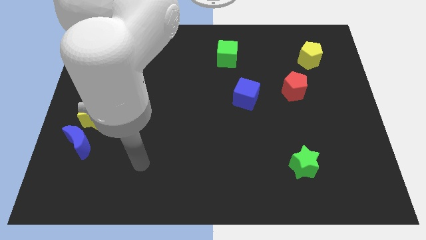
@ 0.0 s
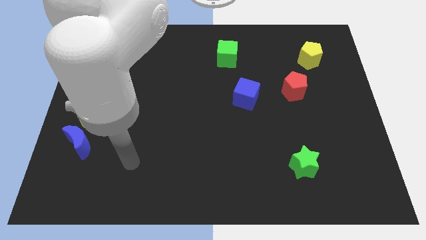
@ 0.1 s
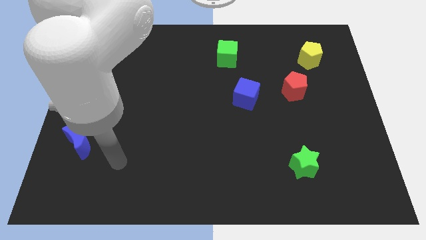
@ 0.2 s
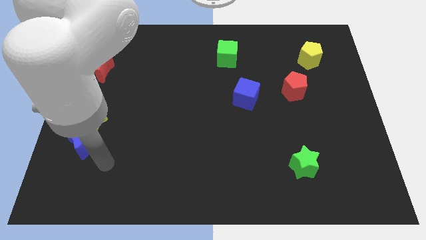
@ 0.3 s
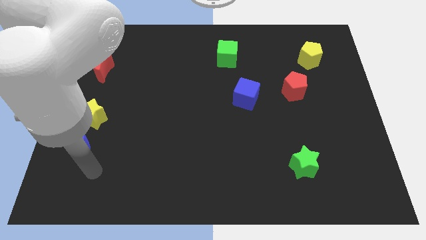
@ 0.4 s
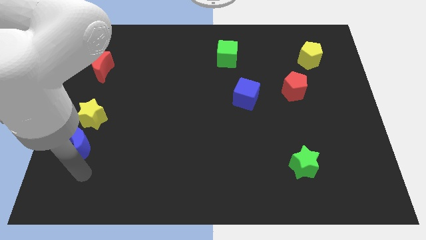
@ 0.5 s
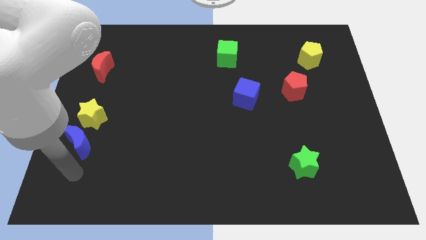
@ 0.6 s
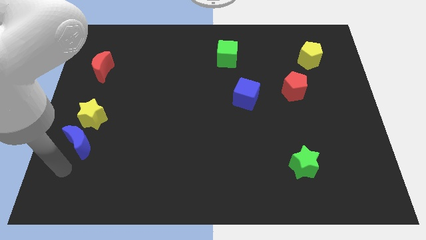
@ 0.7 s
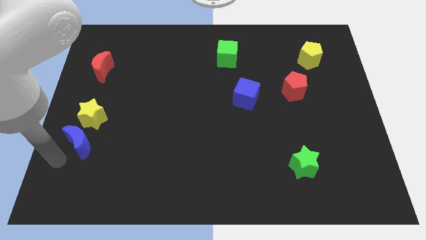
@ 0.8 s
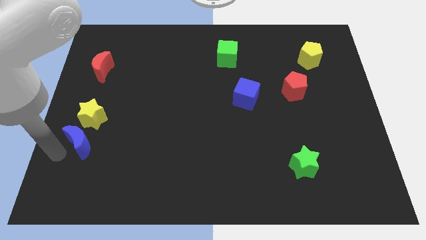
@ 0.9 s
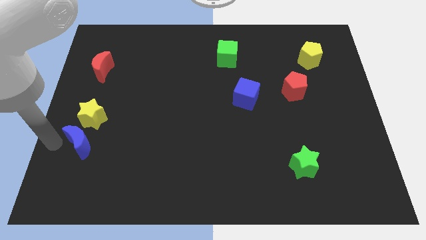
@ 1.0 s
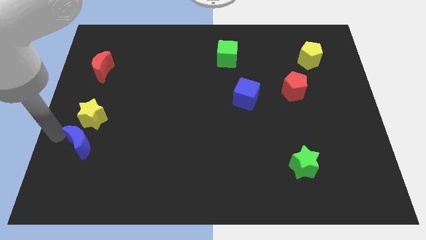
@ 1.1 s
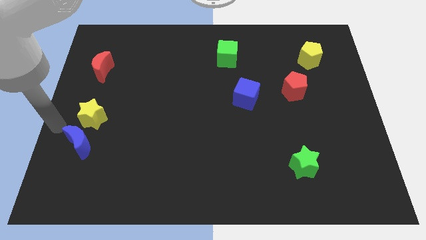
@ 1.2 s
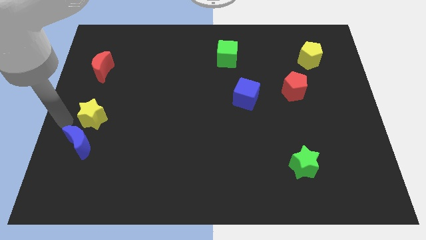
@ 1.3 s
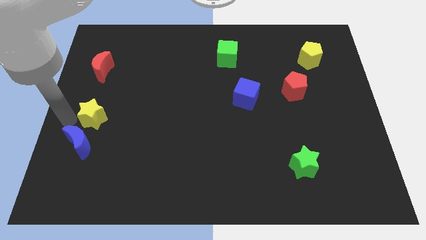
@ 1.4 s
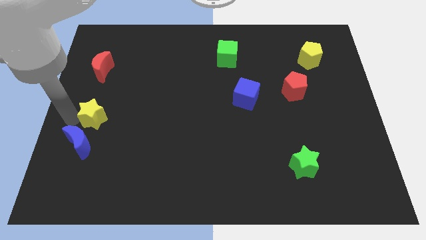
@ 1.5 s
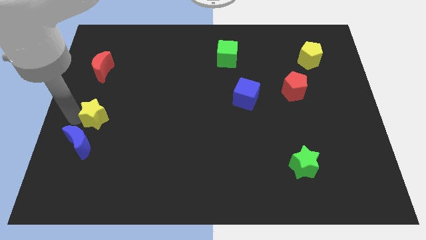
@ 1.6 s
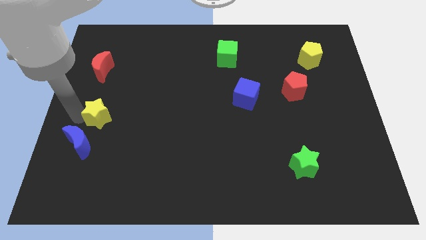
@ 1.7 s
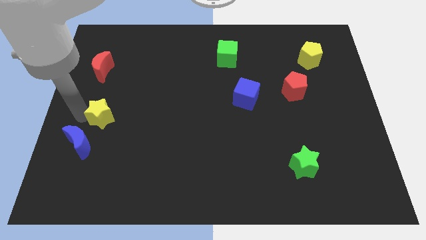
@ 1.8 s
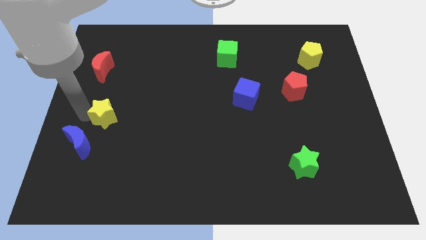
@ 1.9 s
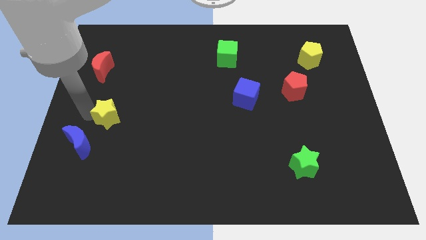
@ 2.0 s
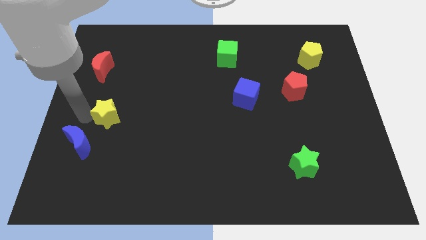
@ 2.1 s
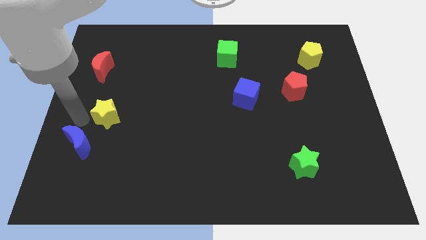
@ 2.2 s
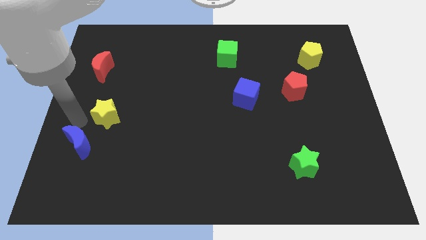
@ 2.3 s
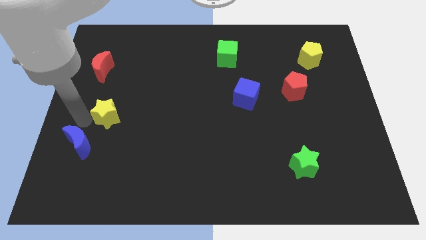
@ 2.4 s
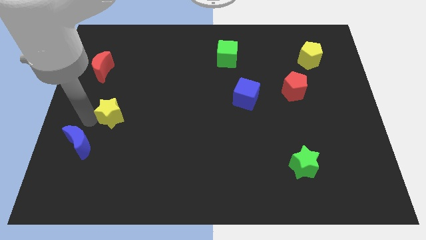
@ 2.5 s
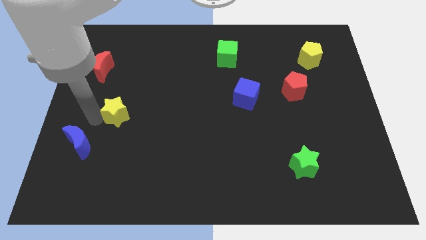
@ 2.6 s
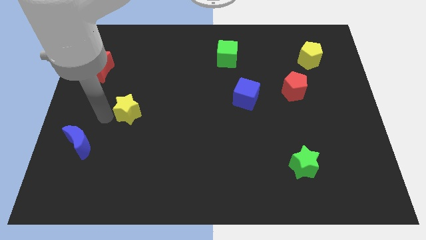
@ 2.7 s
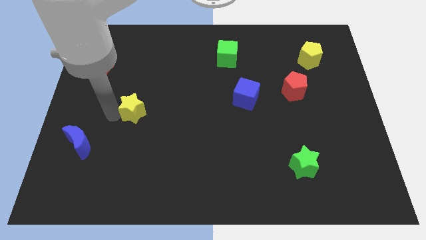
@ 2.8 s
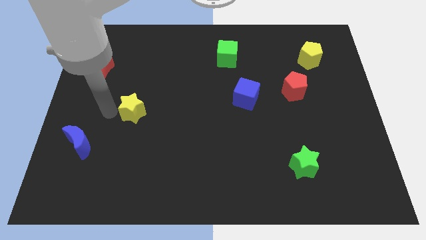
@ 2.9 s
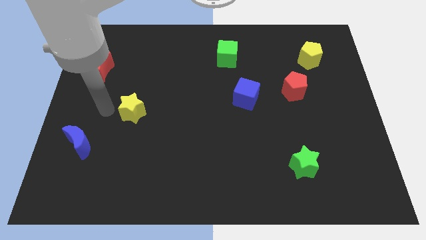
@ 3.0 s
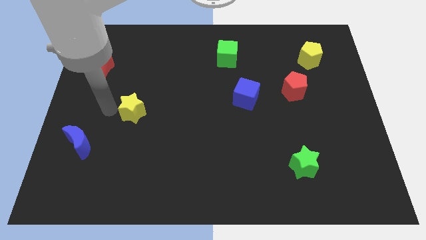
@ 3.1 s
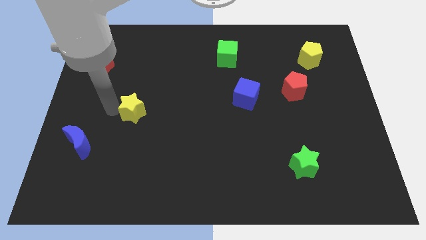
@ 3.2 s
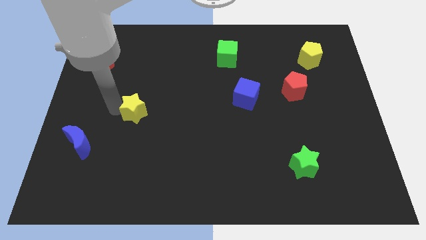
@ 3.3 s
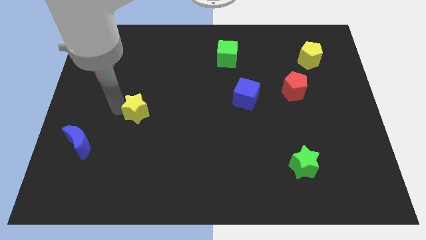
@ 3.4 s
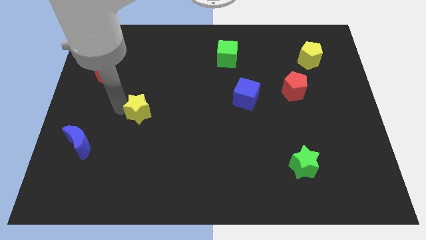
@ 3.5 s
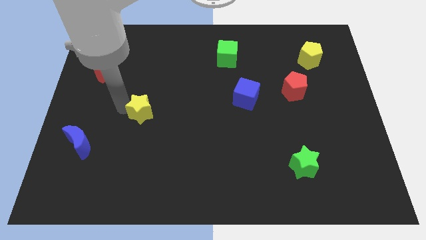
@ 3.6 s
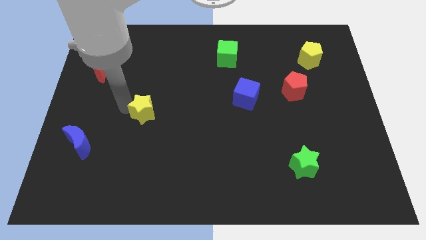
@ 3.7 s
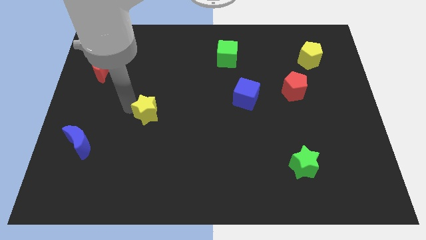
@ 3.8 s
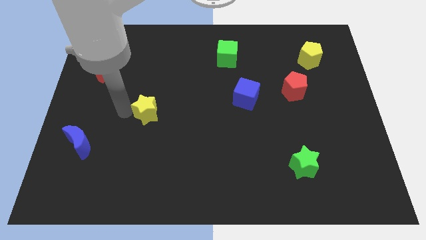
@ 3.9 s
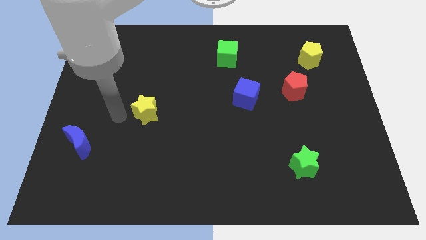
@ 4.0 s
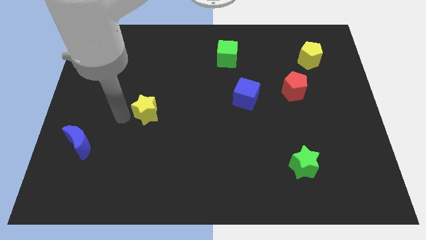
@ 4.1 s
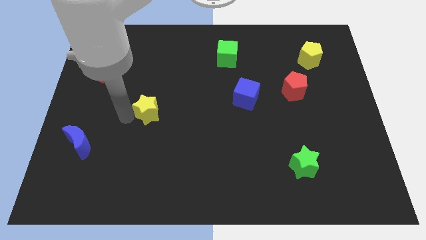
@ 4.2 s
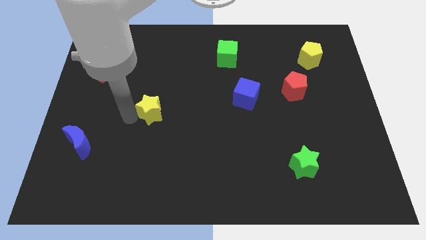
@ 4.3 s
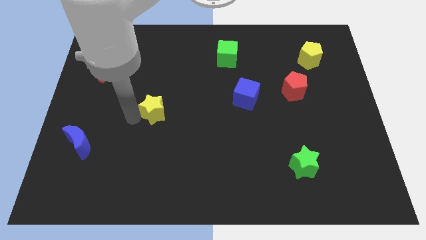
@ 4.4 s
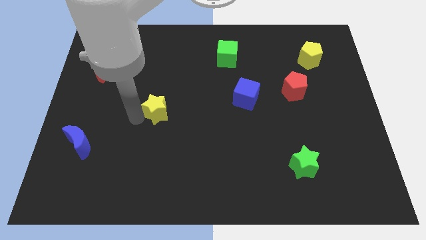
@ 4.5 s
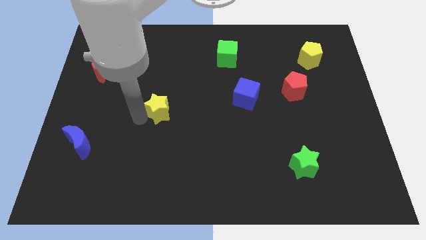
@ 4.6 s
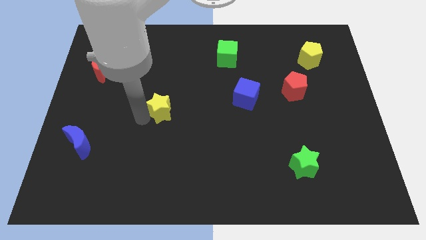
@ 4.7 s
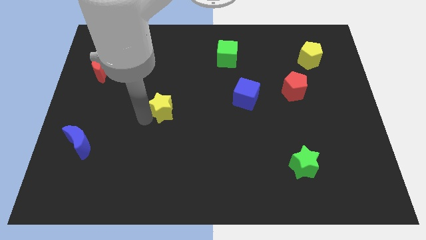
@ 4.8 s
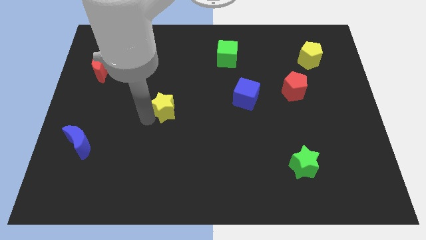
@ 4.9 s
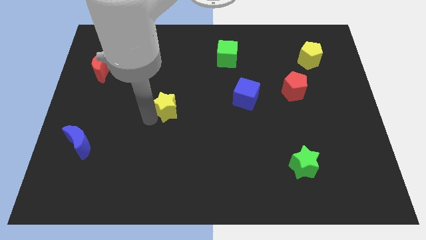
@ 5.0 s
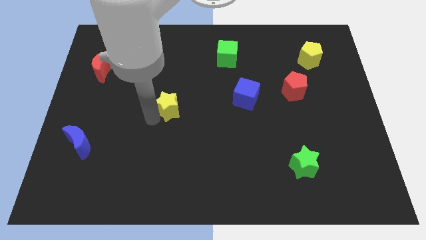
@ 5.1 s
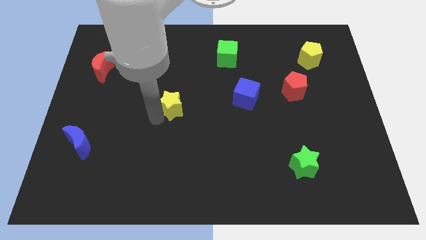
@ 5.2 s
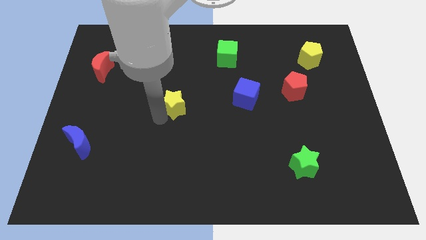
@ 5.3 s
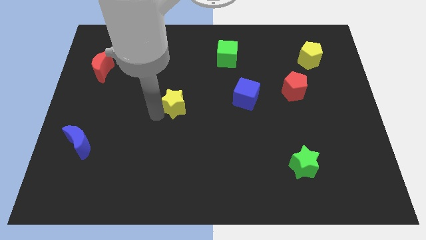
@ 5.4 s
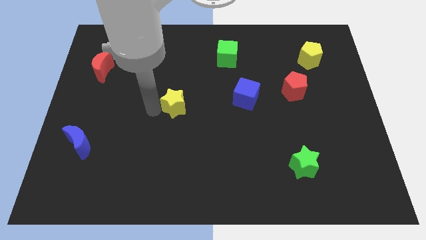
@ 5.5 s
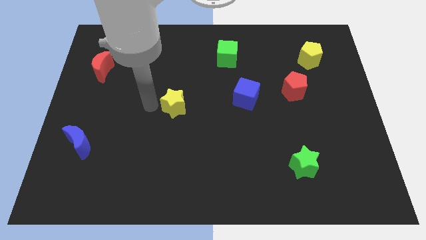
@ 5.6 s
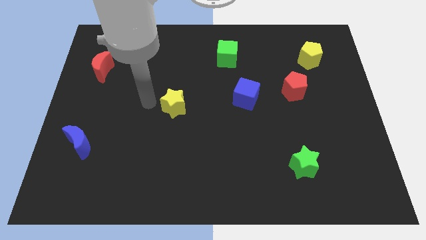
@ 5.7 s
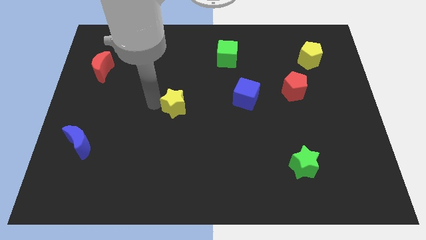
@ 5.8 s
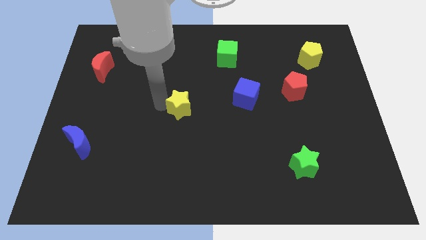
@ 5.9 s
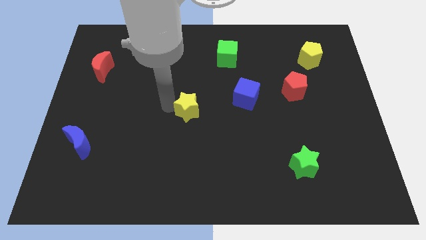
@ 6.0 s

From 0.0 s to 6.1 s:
slide the yellow star to the right

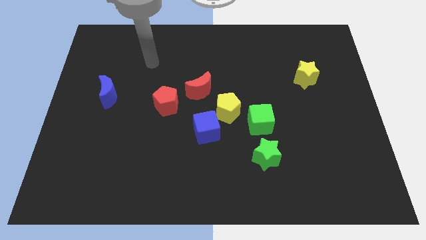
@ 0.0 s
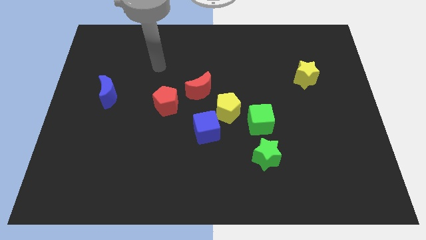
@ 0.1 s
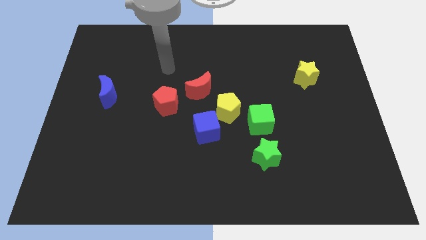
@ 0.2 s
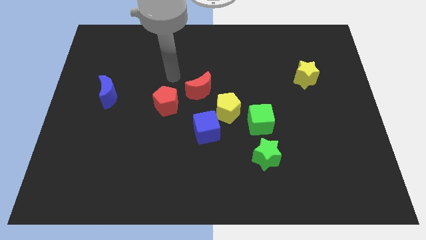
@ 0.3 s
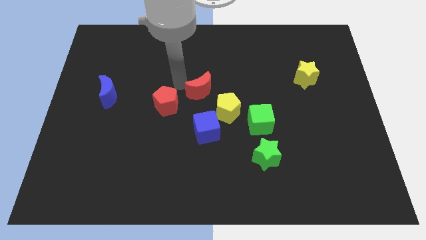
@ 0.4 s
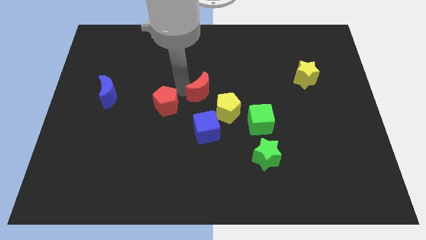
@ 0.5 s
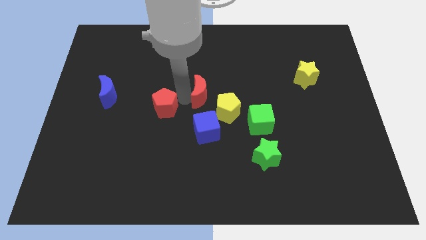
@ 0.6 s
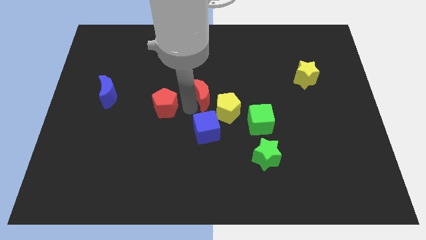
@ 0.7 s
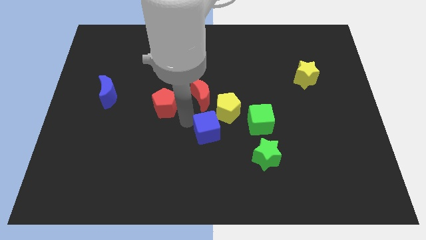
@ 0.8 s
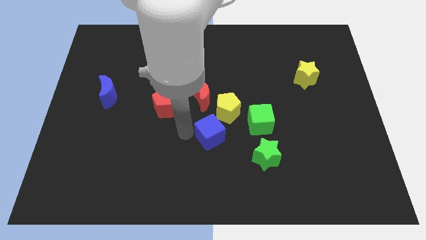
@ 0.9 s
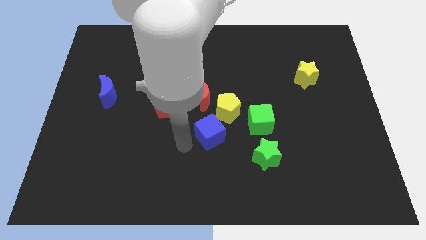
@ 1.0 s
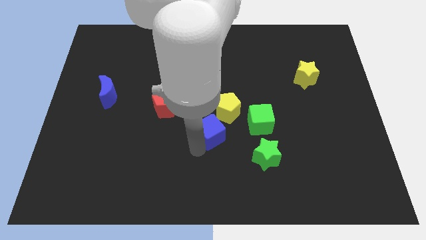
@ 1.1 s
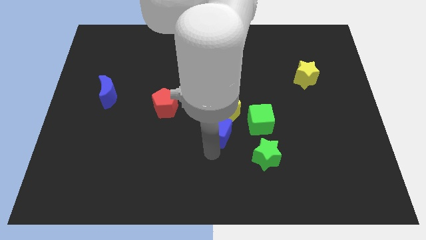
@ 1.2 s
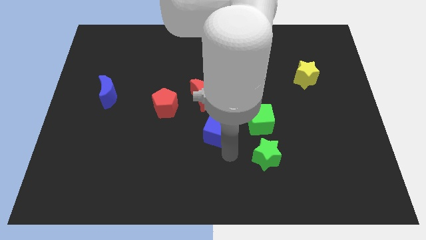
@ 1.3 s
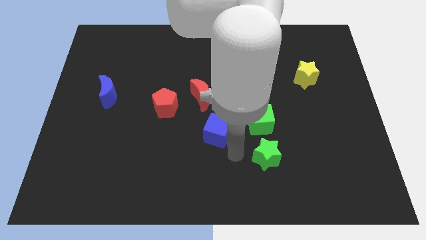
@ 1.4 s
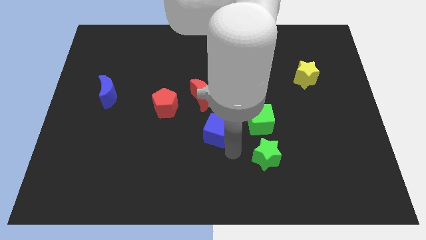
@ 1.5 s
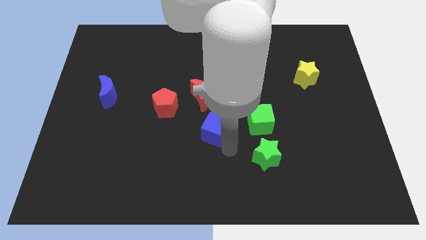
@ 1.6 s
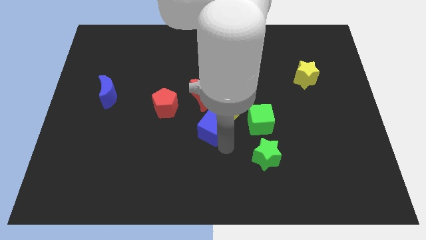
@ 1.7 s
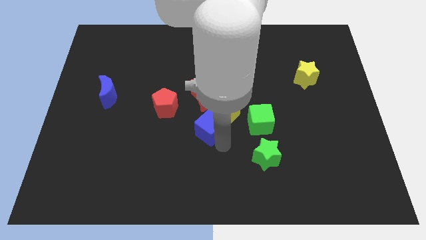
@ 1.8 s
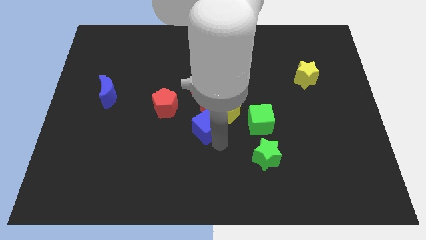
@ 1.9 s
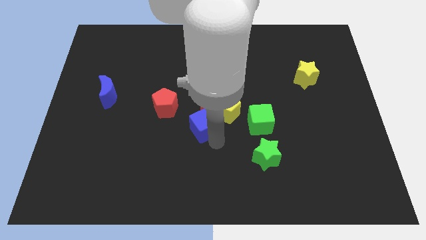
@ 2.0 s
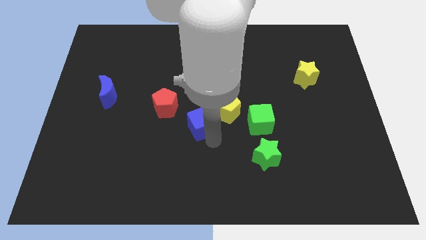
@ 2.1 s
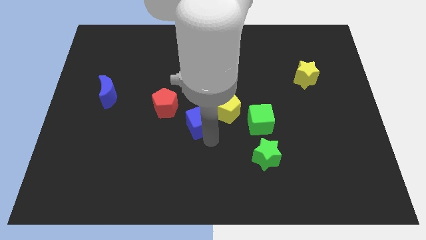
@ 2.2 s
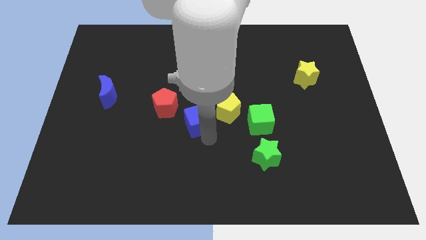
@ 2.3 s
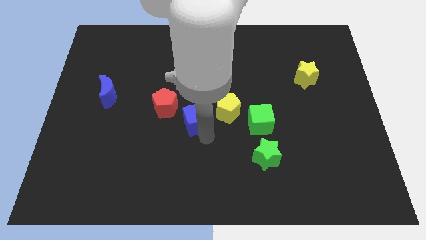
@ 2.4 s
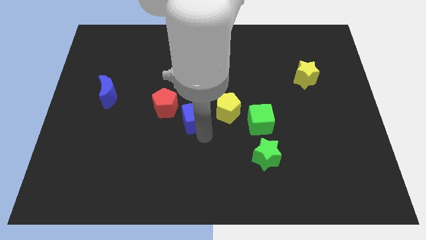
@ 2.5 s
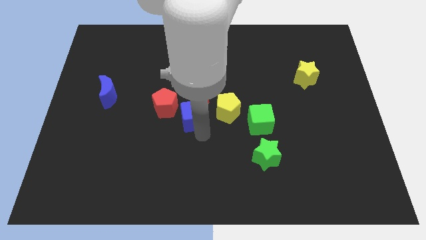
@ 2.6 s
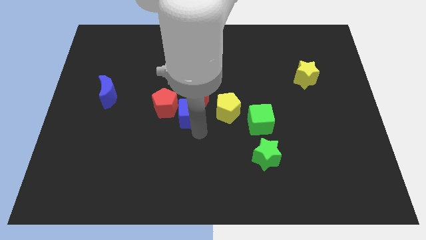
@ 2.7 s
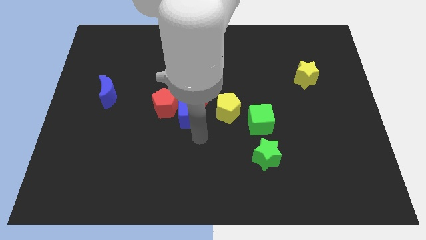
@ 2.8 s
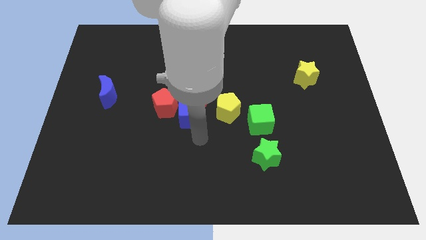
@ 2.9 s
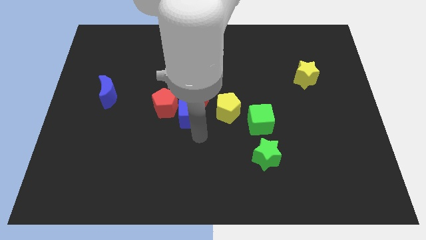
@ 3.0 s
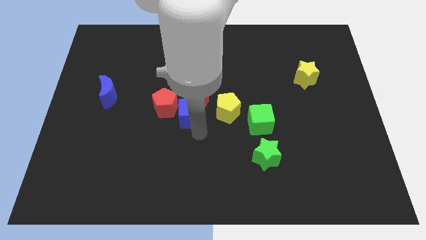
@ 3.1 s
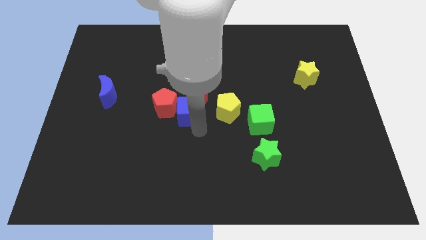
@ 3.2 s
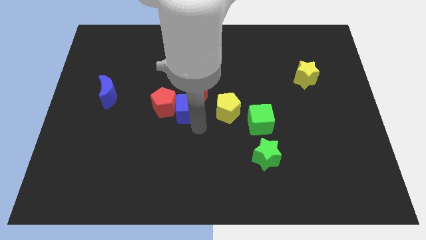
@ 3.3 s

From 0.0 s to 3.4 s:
slightly slide the blue cube upwards and then to the left
